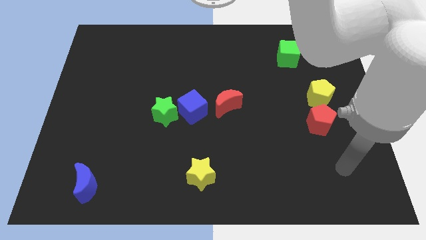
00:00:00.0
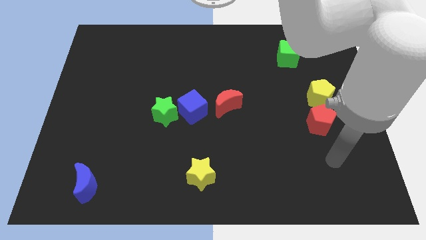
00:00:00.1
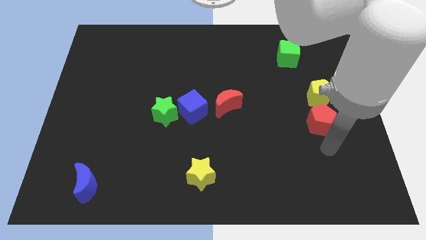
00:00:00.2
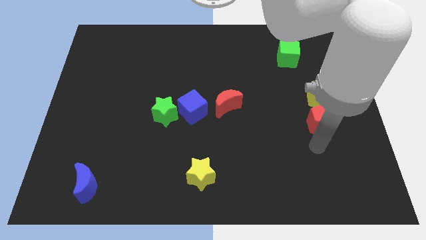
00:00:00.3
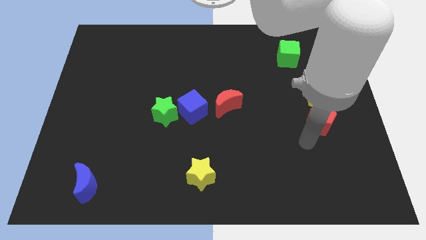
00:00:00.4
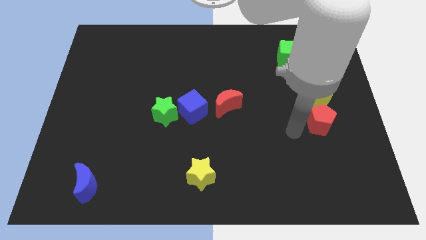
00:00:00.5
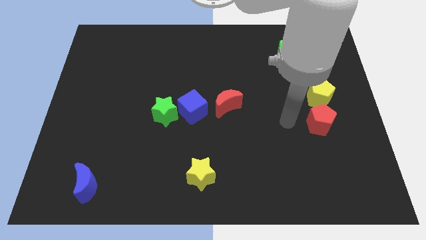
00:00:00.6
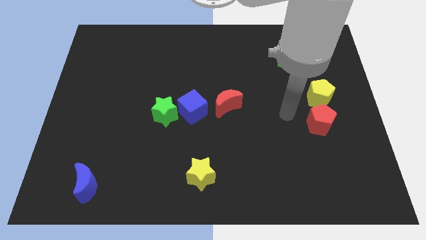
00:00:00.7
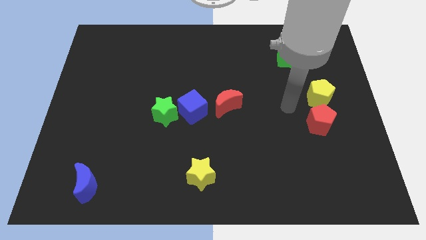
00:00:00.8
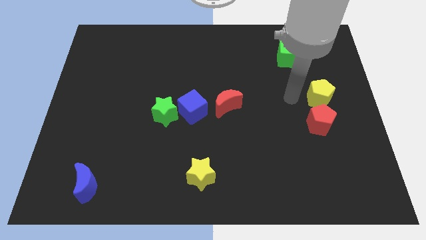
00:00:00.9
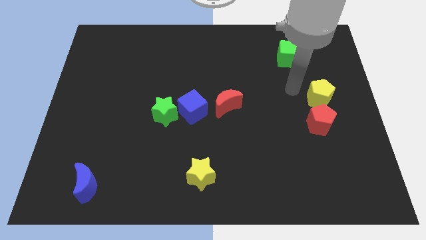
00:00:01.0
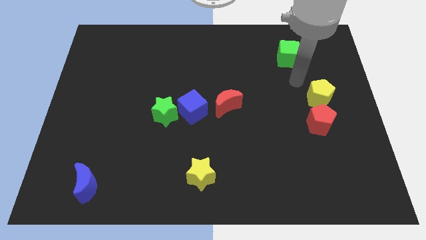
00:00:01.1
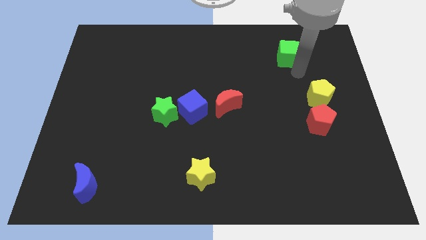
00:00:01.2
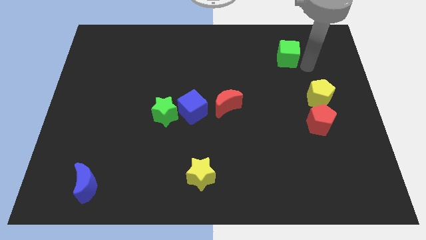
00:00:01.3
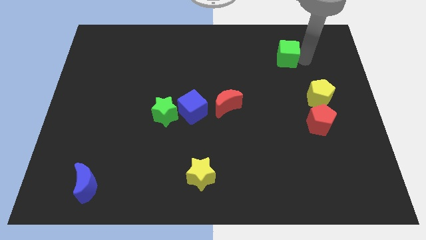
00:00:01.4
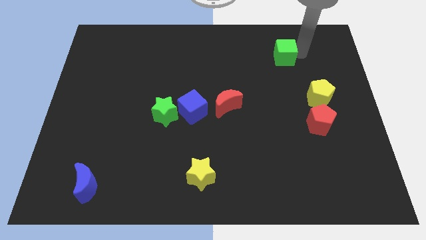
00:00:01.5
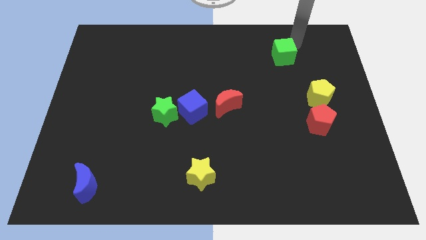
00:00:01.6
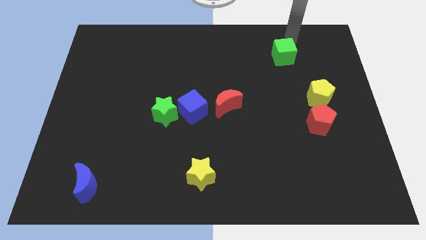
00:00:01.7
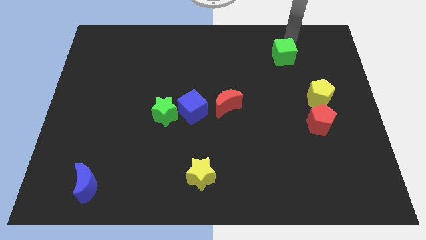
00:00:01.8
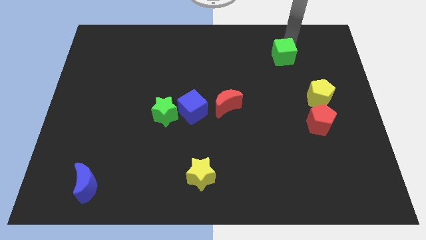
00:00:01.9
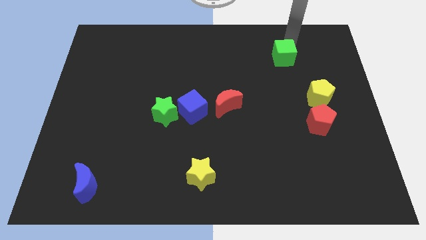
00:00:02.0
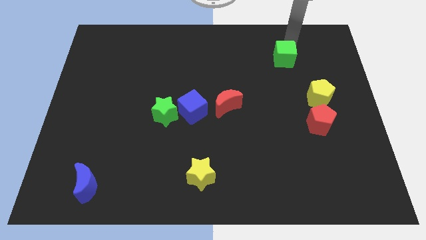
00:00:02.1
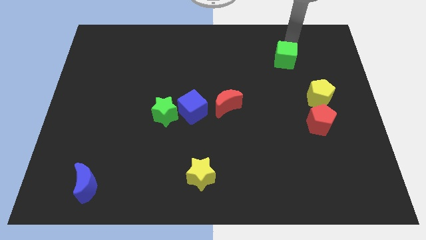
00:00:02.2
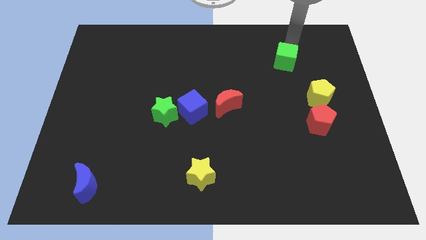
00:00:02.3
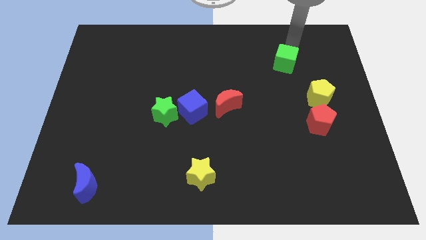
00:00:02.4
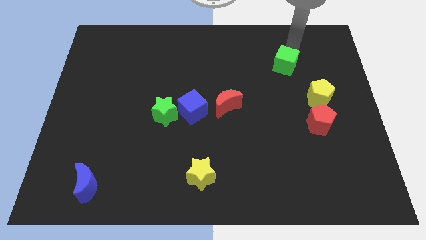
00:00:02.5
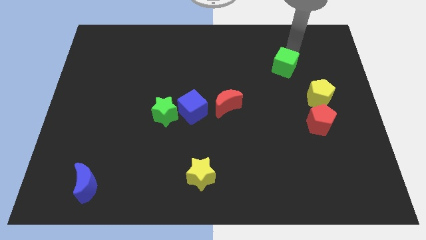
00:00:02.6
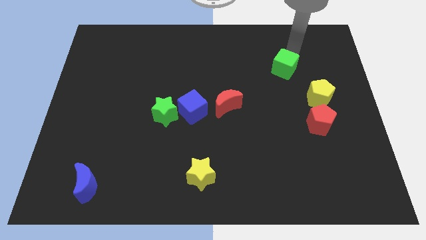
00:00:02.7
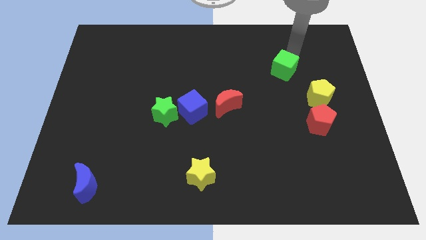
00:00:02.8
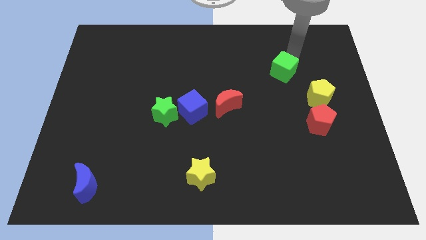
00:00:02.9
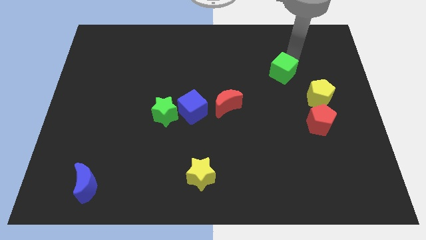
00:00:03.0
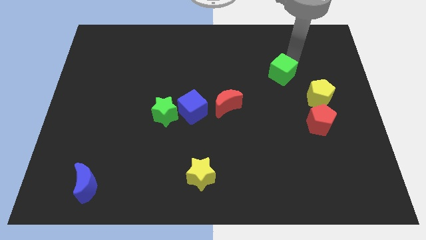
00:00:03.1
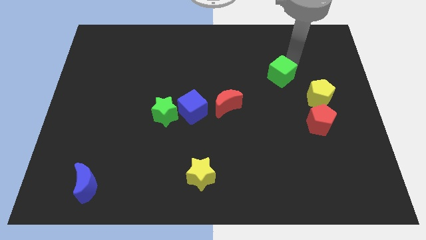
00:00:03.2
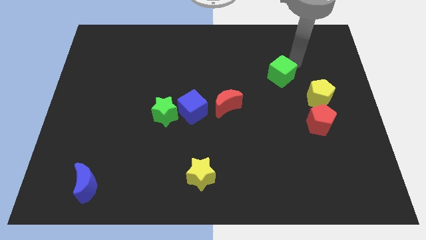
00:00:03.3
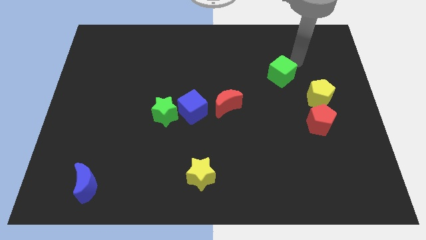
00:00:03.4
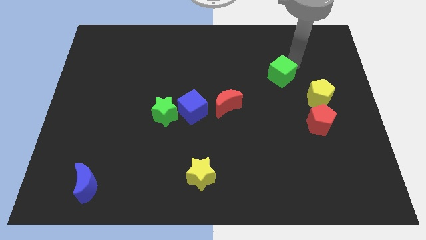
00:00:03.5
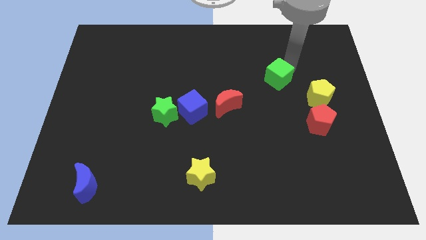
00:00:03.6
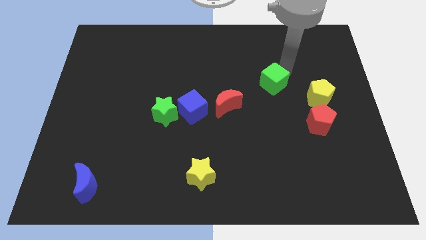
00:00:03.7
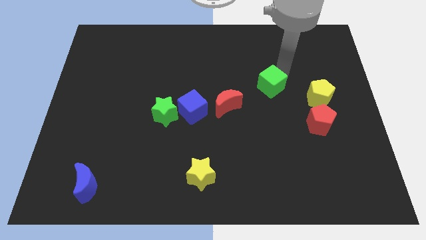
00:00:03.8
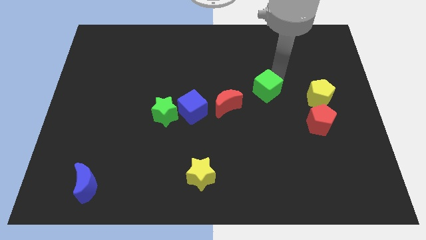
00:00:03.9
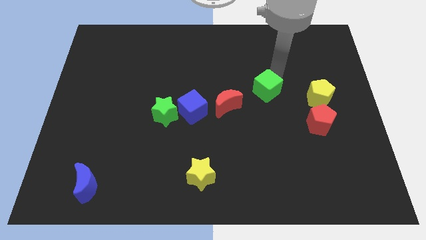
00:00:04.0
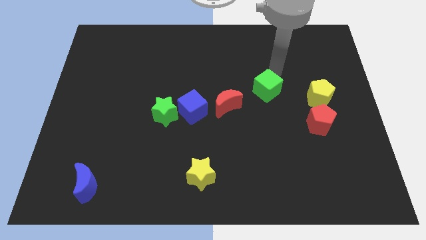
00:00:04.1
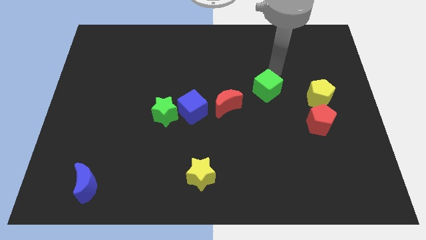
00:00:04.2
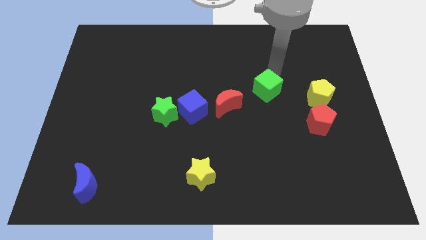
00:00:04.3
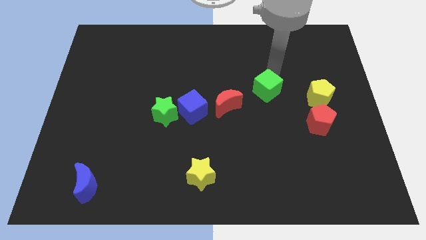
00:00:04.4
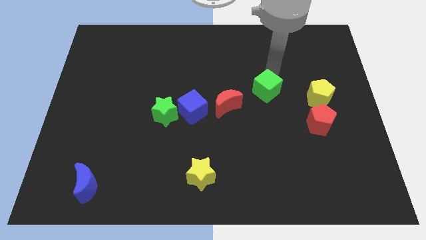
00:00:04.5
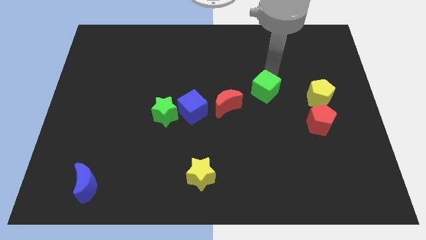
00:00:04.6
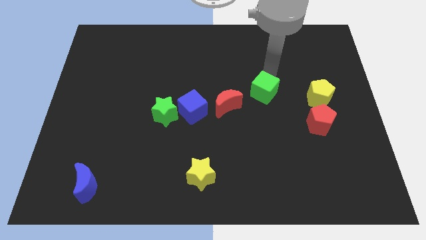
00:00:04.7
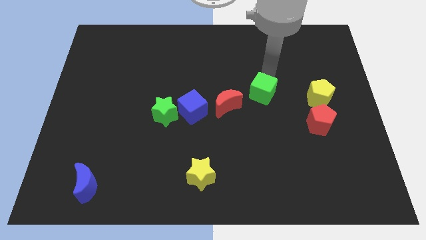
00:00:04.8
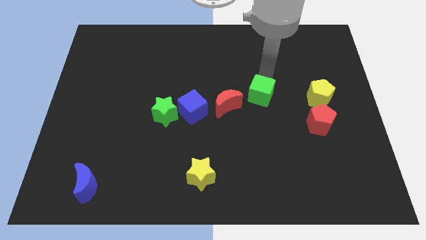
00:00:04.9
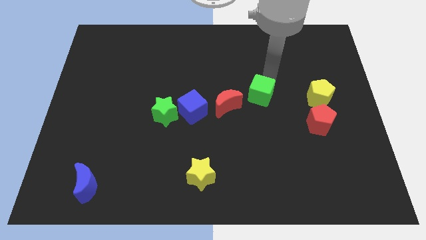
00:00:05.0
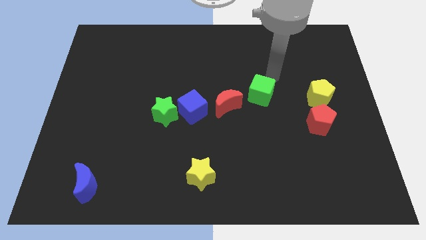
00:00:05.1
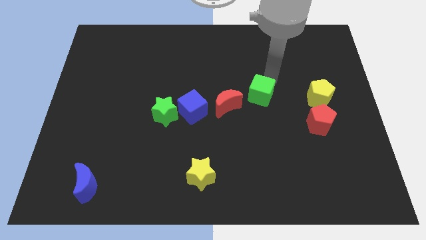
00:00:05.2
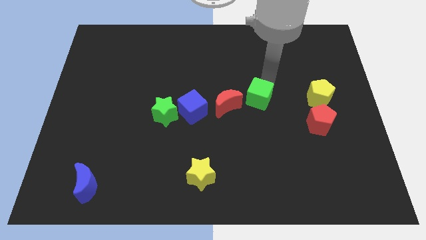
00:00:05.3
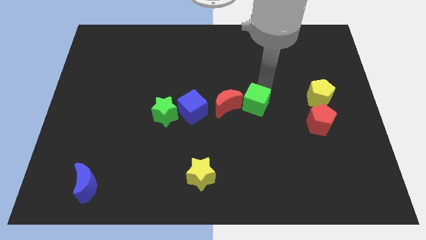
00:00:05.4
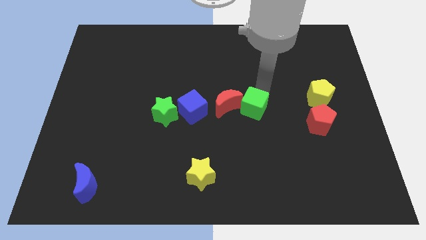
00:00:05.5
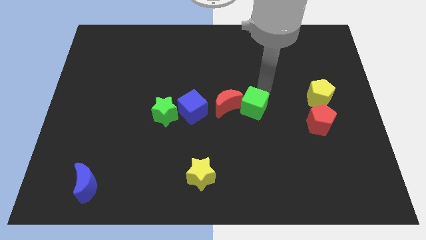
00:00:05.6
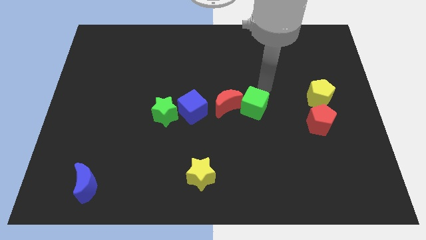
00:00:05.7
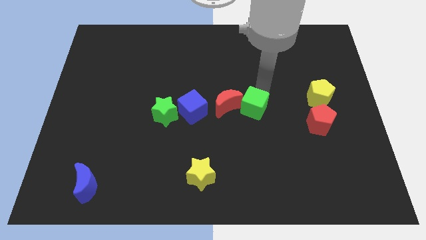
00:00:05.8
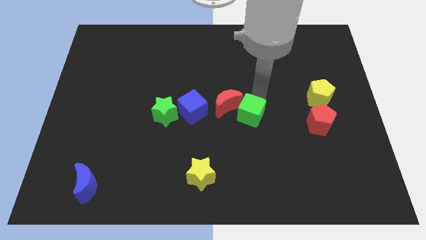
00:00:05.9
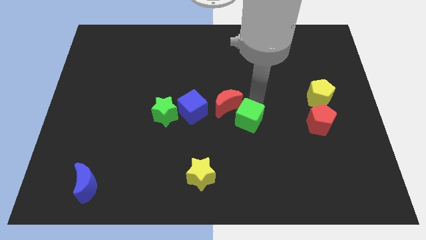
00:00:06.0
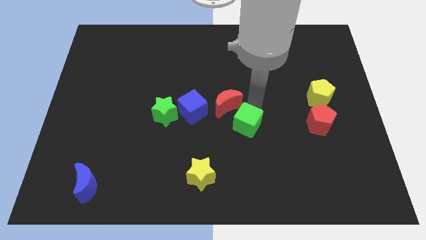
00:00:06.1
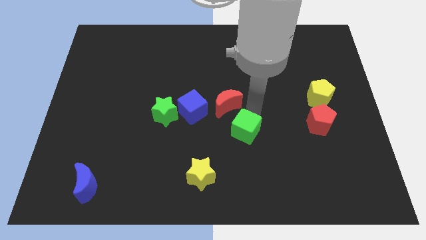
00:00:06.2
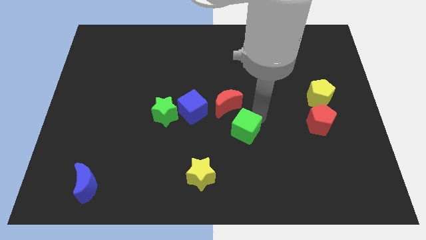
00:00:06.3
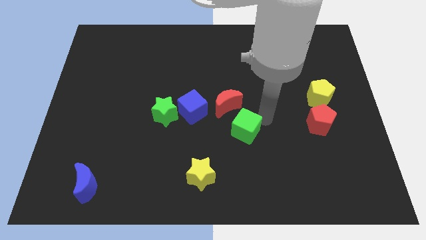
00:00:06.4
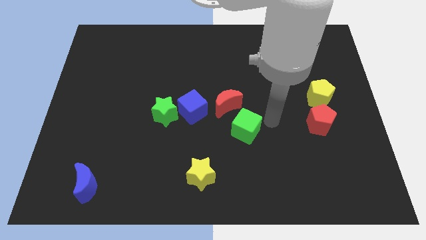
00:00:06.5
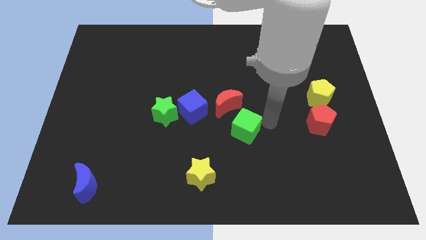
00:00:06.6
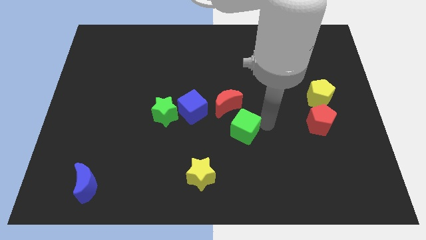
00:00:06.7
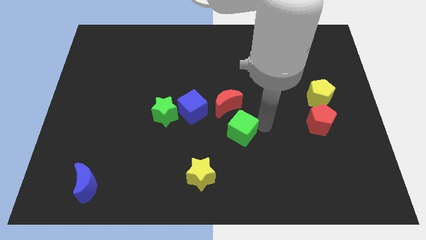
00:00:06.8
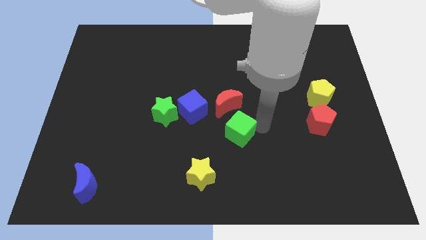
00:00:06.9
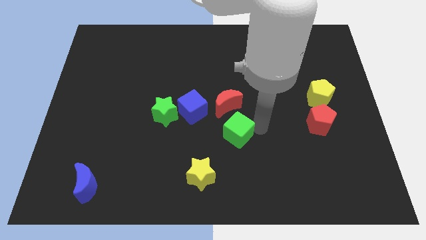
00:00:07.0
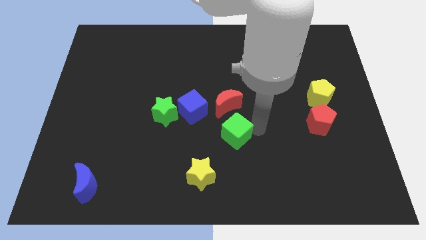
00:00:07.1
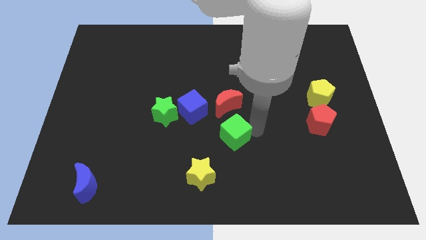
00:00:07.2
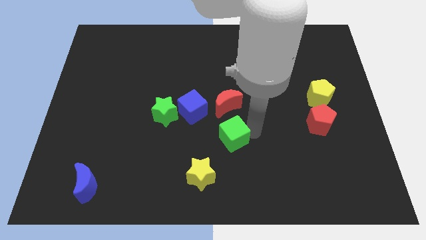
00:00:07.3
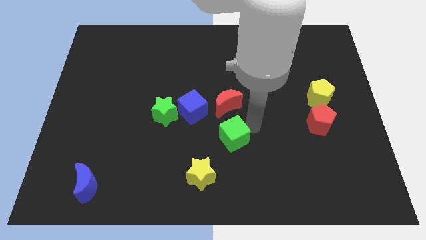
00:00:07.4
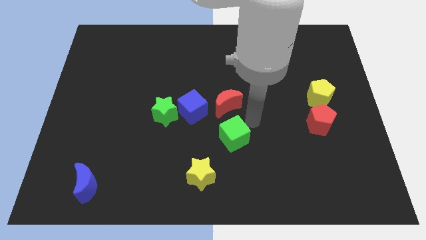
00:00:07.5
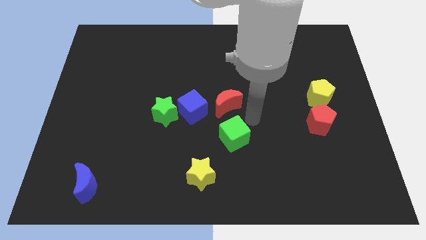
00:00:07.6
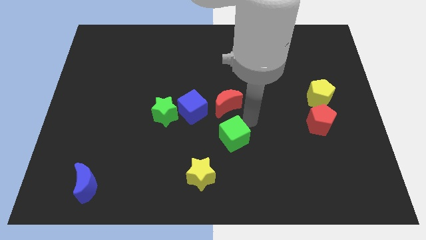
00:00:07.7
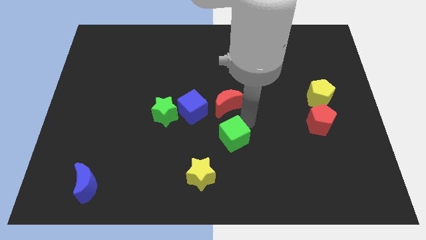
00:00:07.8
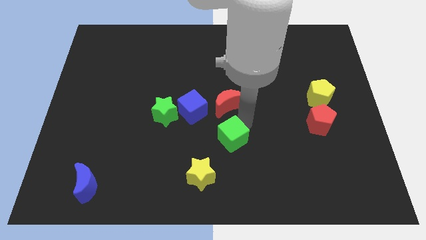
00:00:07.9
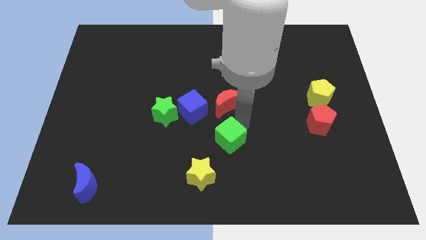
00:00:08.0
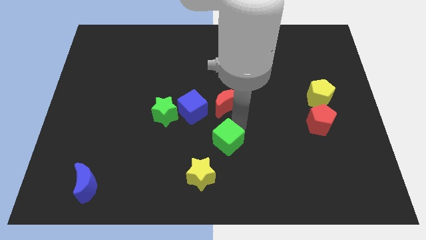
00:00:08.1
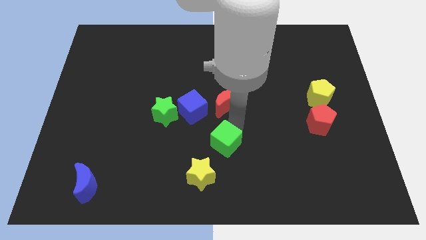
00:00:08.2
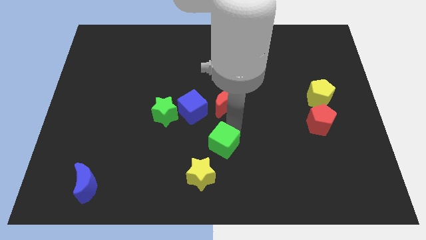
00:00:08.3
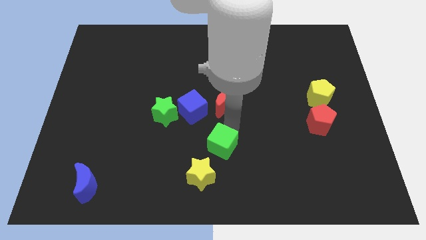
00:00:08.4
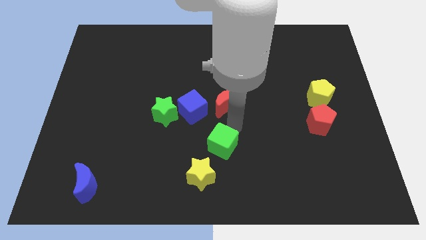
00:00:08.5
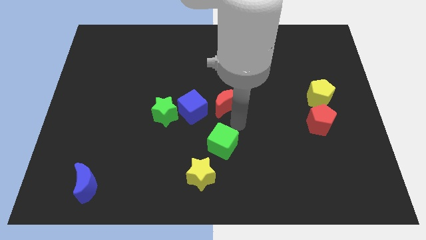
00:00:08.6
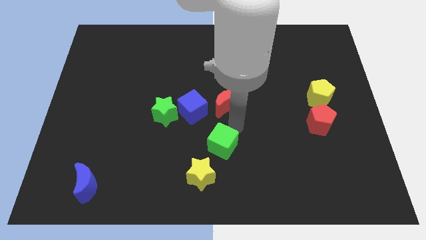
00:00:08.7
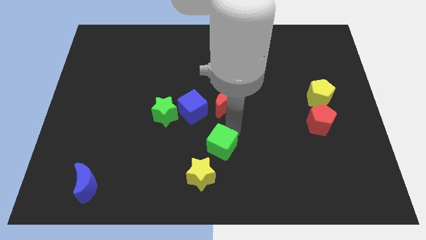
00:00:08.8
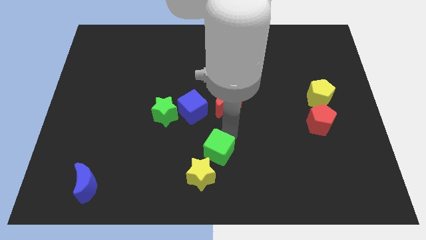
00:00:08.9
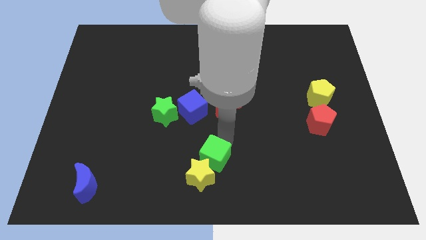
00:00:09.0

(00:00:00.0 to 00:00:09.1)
slide the green cube next to the yellow star
